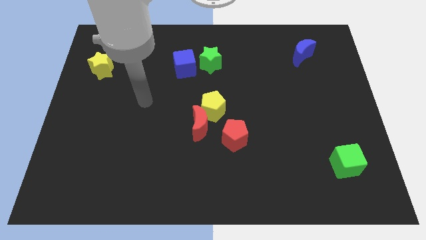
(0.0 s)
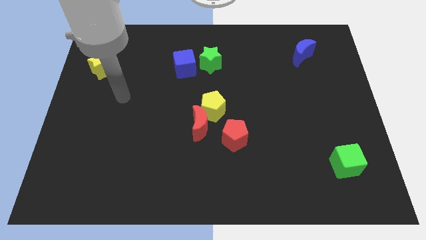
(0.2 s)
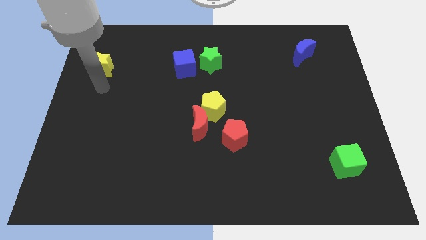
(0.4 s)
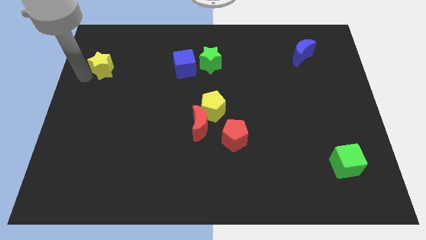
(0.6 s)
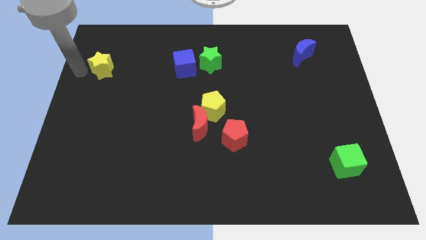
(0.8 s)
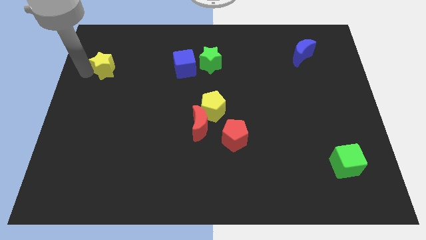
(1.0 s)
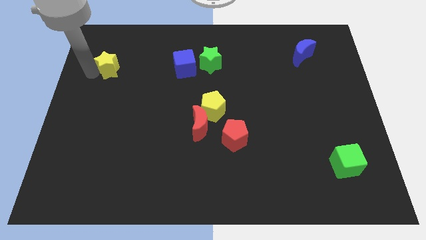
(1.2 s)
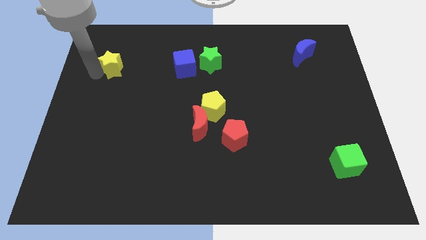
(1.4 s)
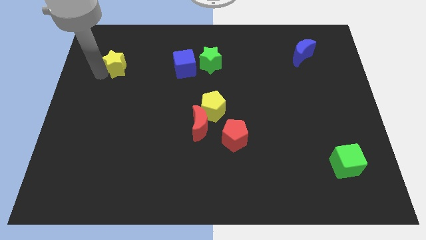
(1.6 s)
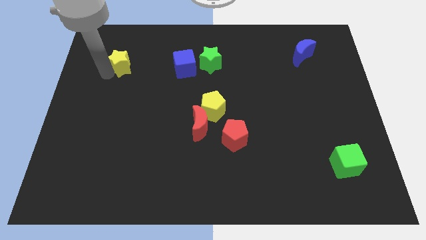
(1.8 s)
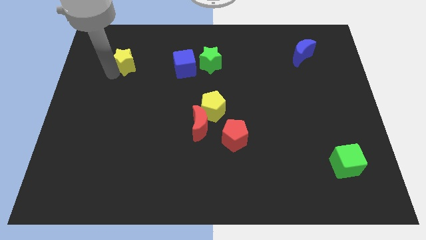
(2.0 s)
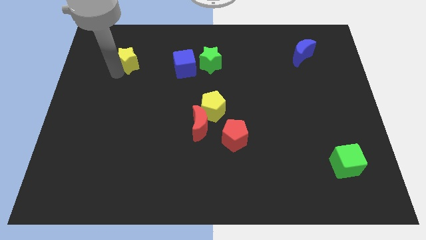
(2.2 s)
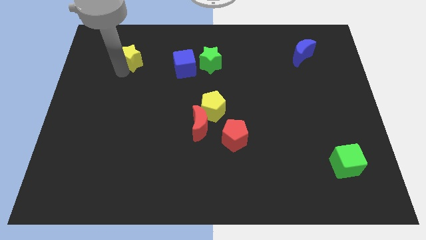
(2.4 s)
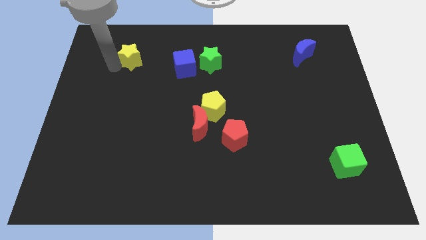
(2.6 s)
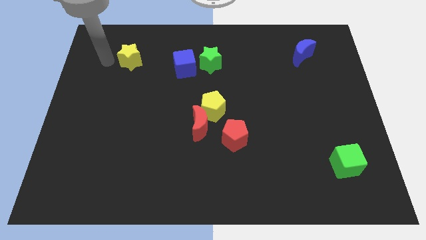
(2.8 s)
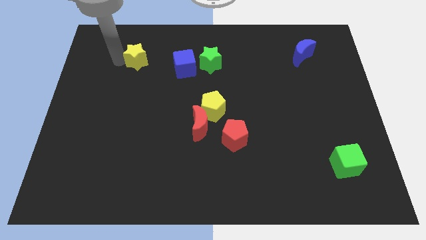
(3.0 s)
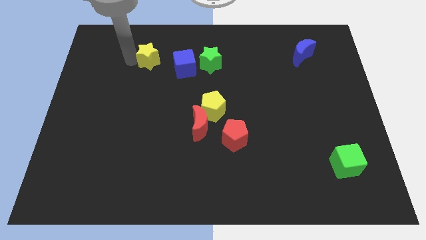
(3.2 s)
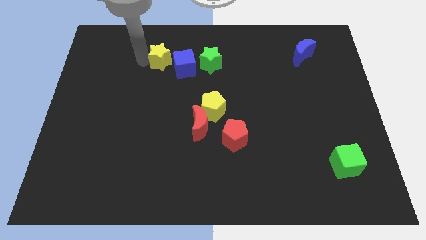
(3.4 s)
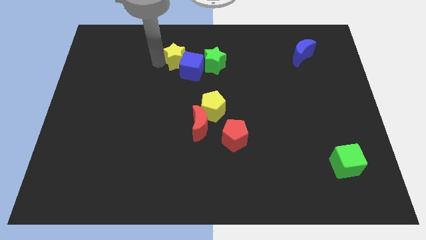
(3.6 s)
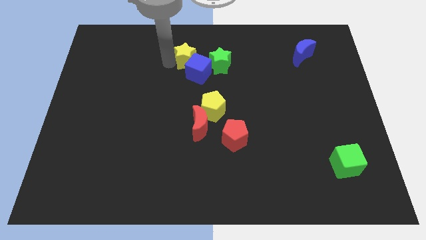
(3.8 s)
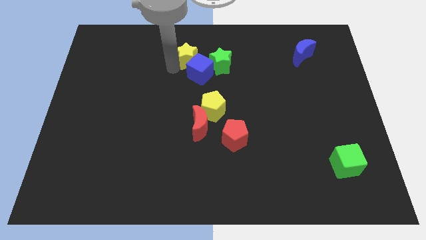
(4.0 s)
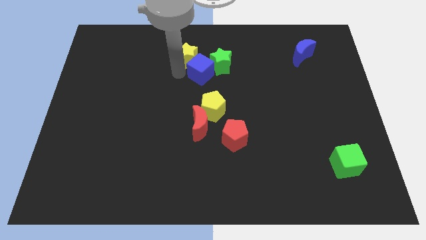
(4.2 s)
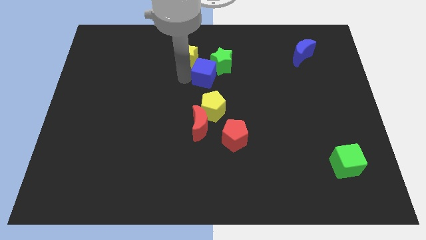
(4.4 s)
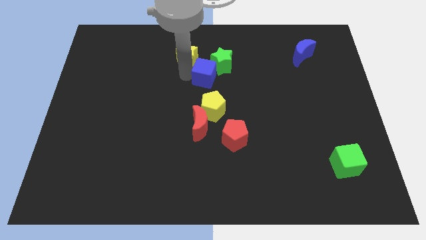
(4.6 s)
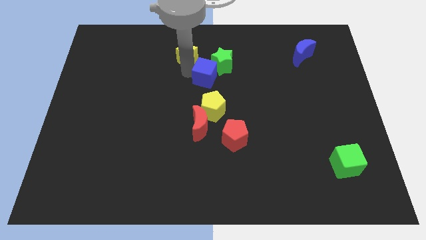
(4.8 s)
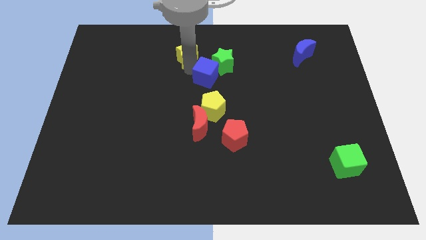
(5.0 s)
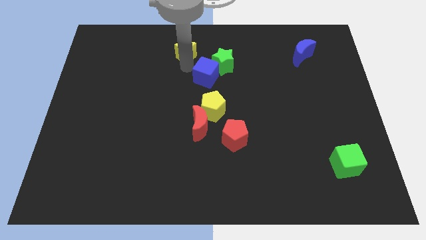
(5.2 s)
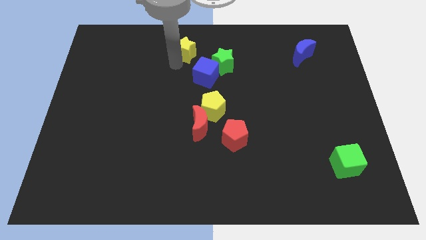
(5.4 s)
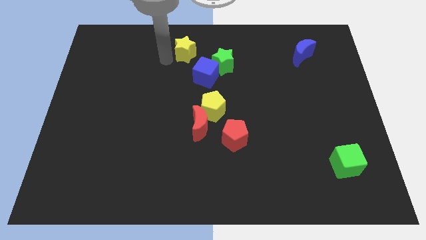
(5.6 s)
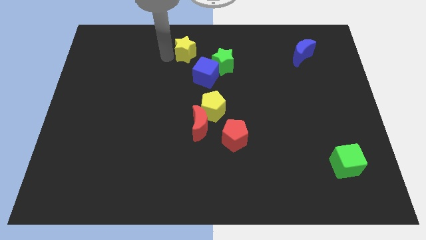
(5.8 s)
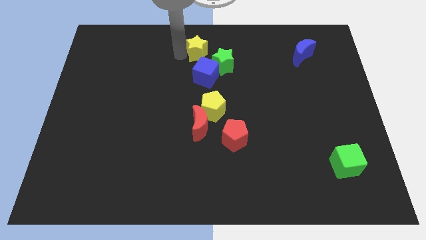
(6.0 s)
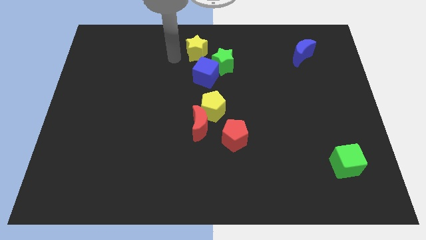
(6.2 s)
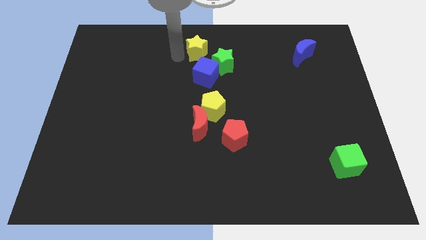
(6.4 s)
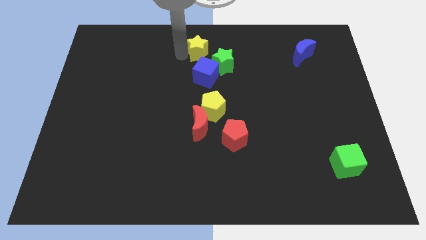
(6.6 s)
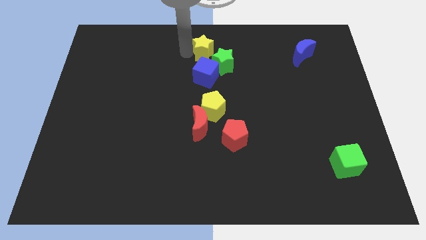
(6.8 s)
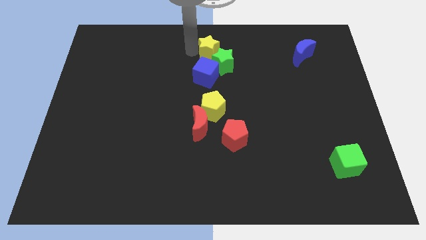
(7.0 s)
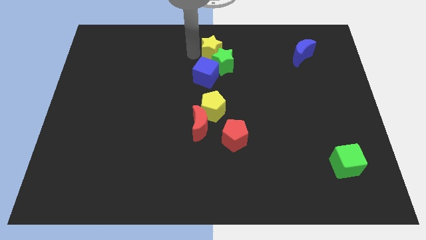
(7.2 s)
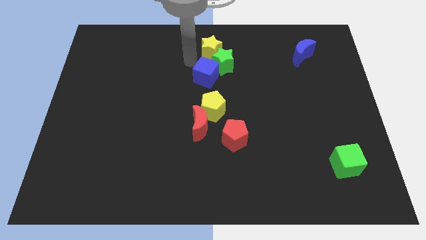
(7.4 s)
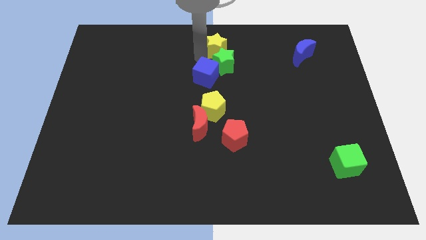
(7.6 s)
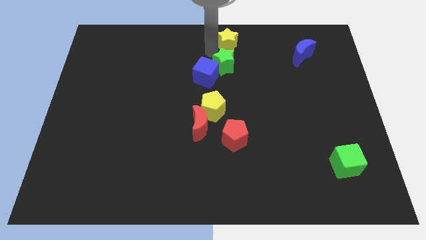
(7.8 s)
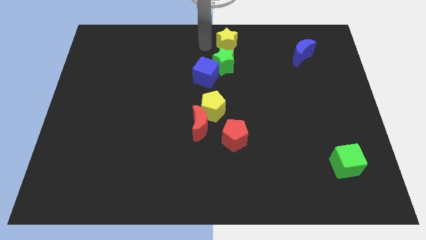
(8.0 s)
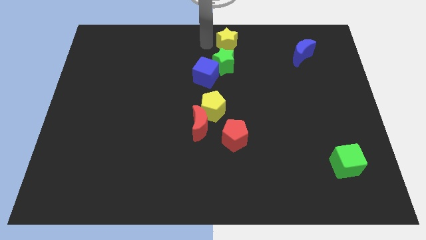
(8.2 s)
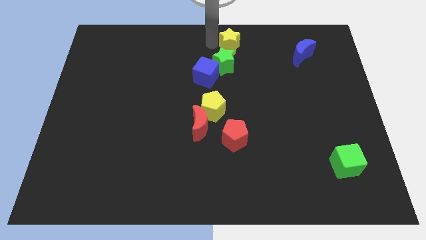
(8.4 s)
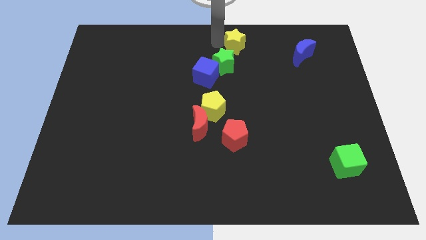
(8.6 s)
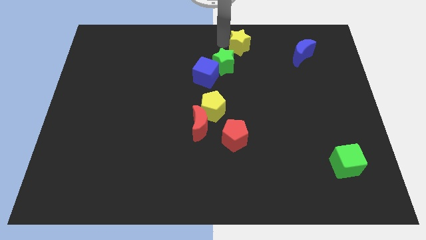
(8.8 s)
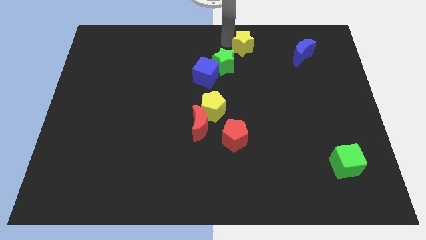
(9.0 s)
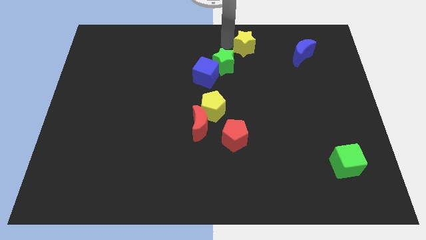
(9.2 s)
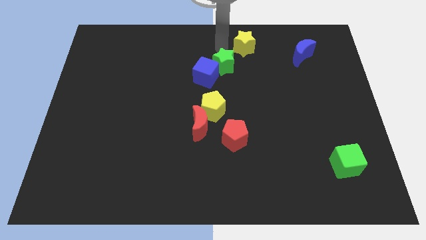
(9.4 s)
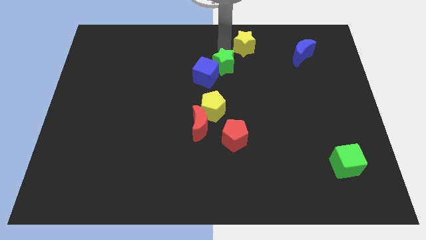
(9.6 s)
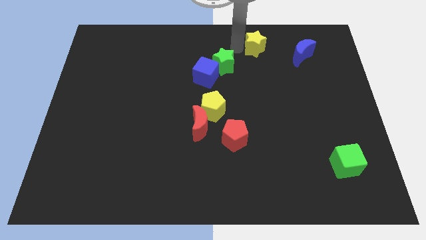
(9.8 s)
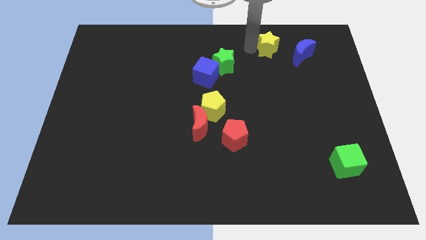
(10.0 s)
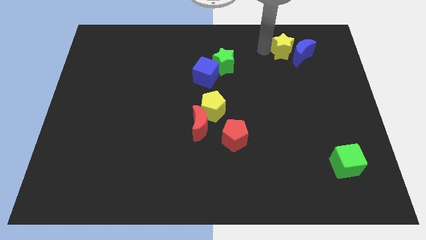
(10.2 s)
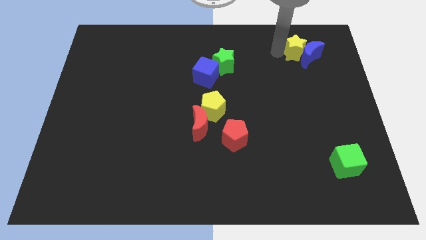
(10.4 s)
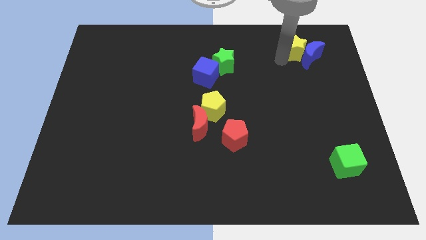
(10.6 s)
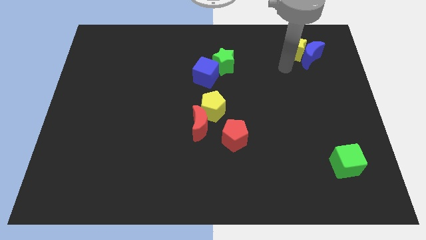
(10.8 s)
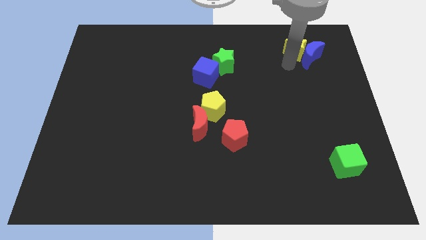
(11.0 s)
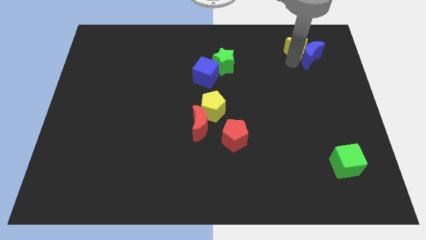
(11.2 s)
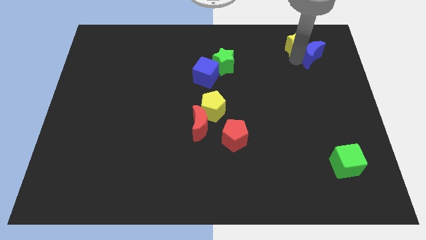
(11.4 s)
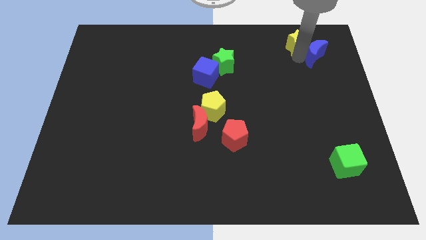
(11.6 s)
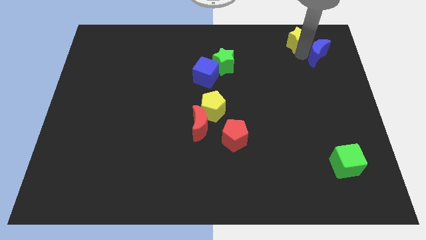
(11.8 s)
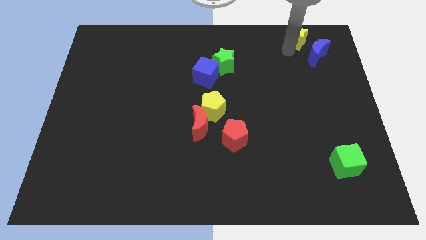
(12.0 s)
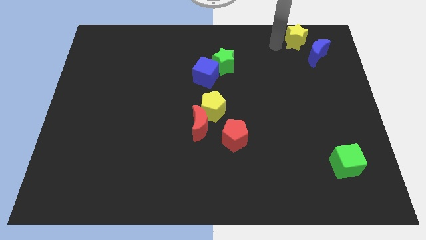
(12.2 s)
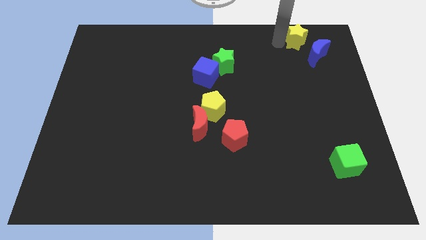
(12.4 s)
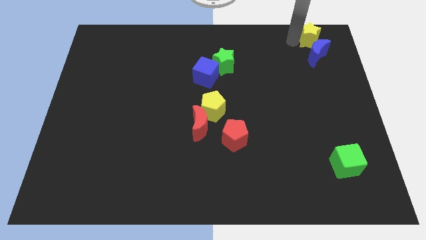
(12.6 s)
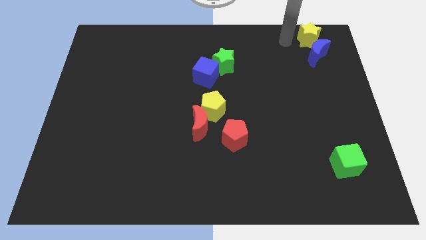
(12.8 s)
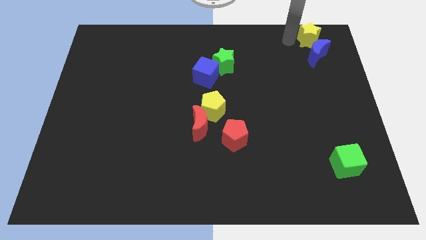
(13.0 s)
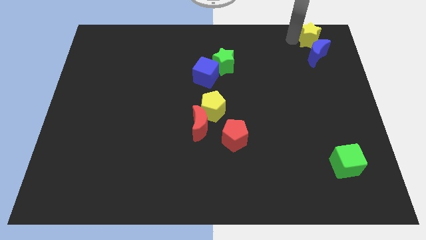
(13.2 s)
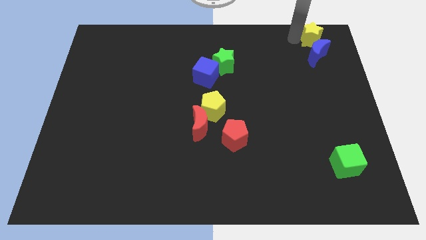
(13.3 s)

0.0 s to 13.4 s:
push the yellow star to the top right of the board
